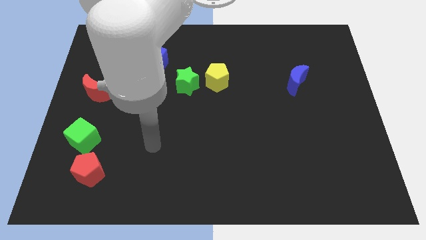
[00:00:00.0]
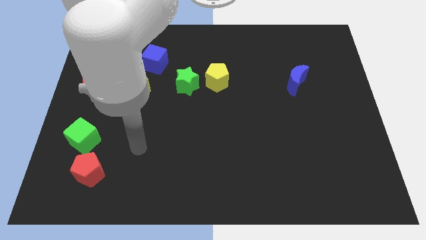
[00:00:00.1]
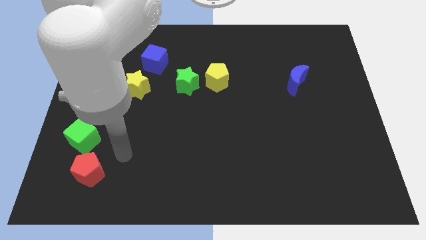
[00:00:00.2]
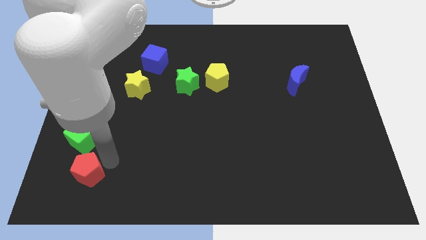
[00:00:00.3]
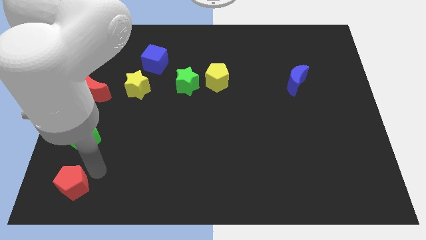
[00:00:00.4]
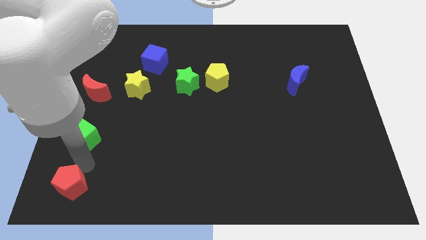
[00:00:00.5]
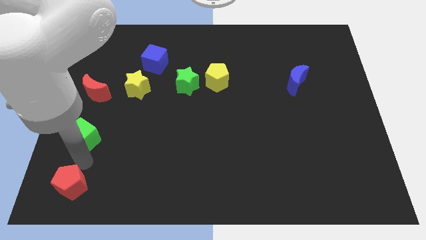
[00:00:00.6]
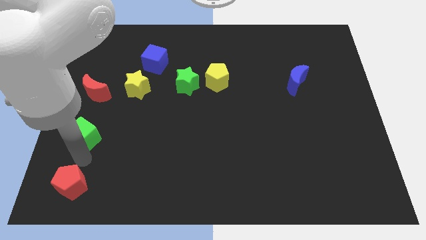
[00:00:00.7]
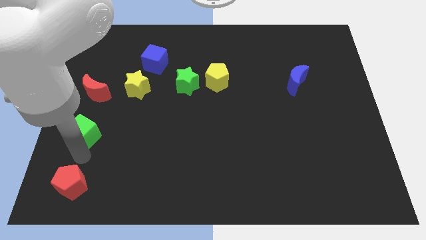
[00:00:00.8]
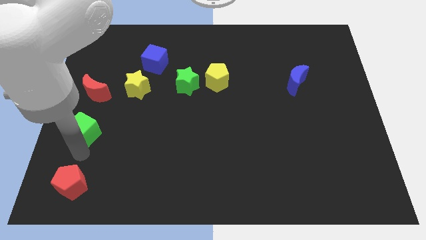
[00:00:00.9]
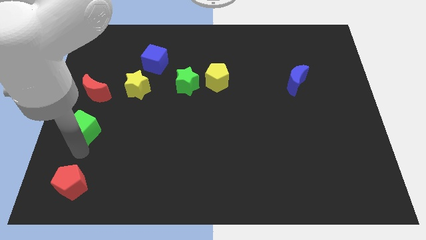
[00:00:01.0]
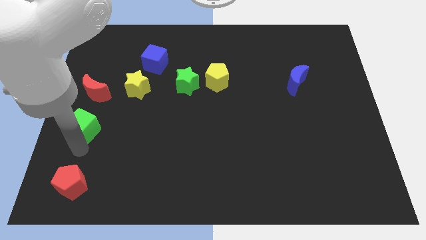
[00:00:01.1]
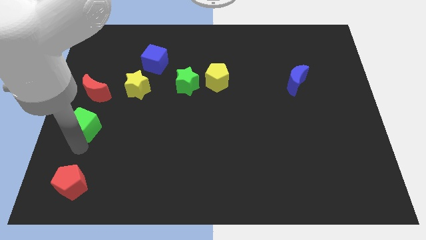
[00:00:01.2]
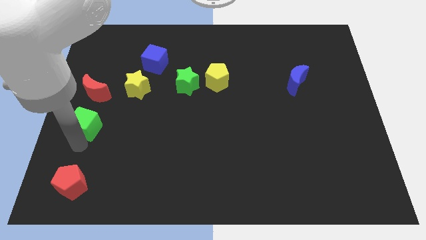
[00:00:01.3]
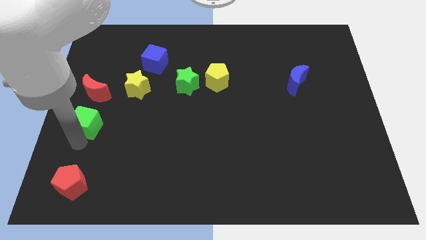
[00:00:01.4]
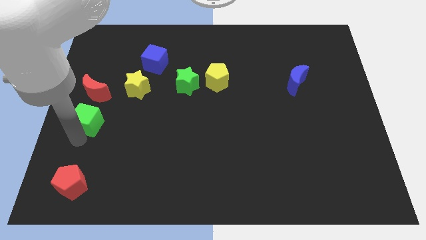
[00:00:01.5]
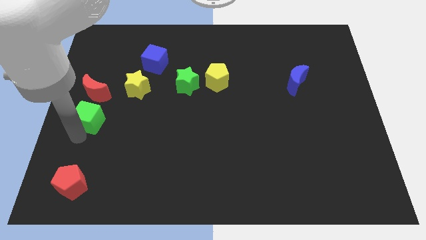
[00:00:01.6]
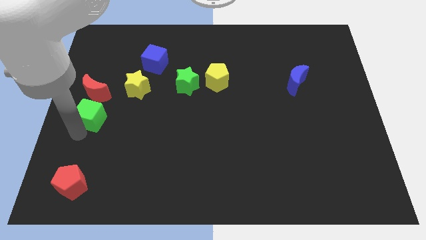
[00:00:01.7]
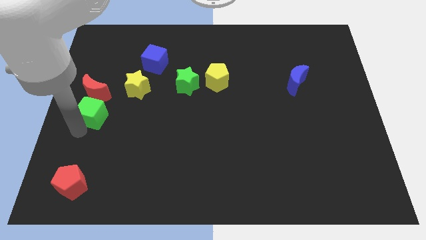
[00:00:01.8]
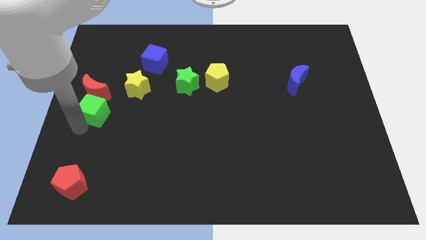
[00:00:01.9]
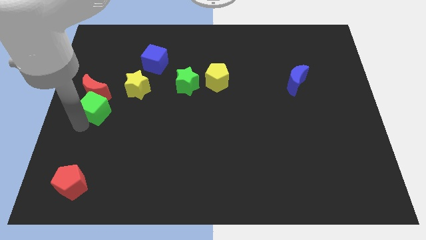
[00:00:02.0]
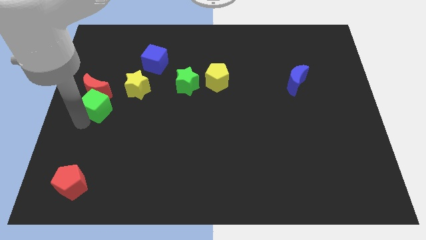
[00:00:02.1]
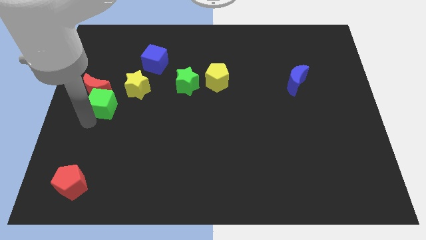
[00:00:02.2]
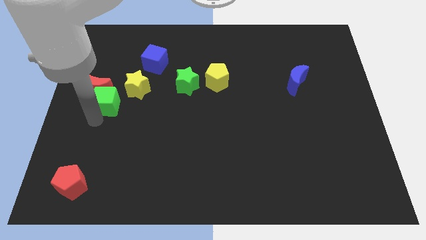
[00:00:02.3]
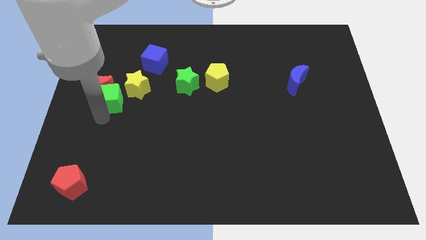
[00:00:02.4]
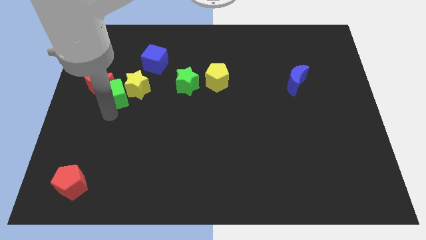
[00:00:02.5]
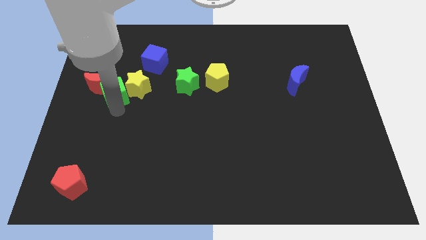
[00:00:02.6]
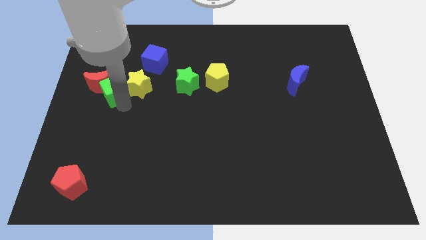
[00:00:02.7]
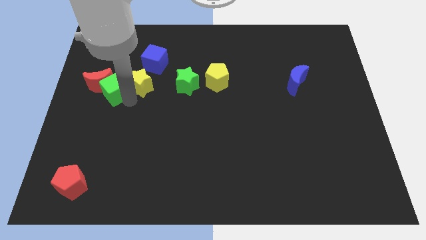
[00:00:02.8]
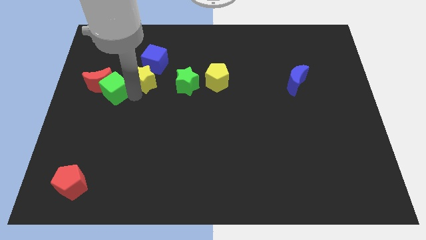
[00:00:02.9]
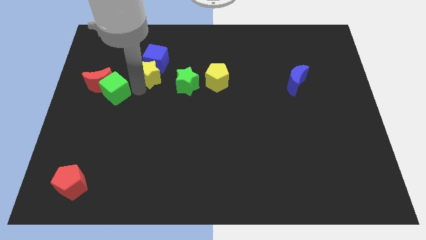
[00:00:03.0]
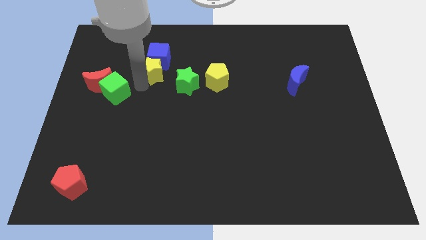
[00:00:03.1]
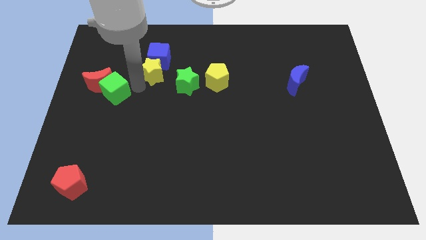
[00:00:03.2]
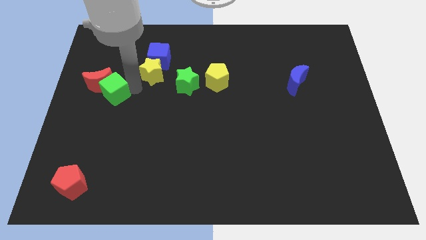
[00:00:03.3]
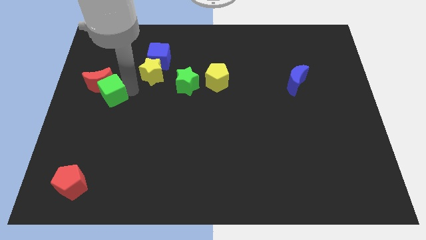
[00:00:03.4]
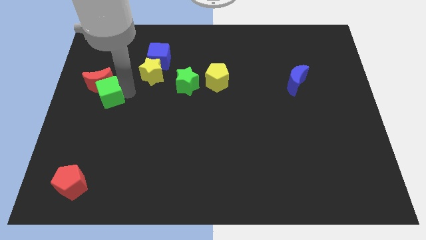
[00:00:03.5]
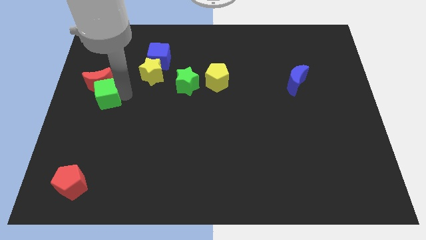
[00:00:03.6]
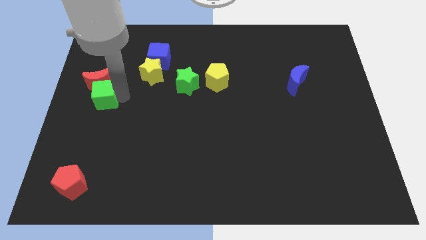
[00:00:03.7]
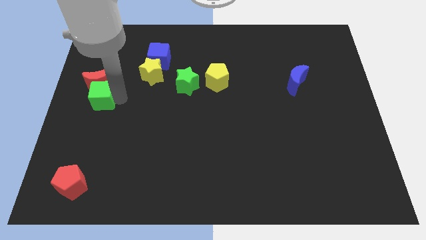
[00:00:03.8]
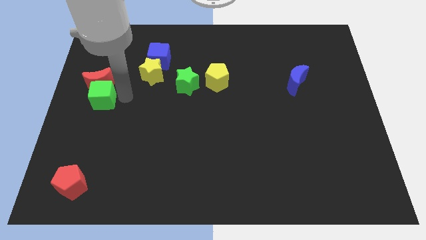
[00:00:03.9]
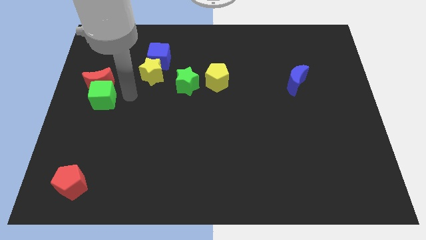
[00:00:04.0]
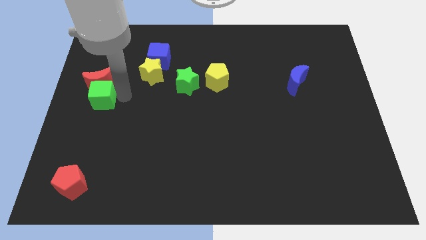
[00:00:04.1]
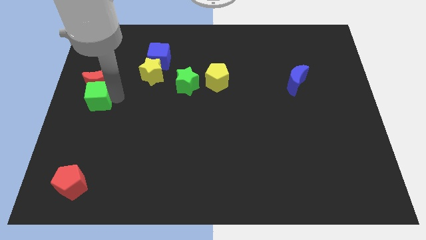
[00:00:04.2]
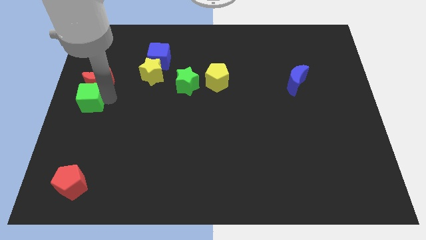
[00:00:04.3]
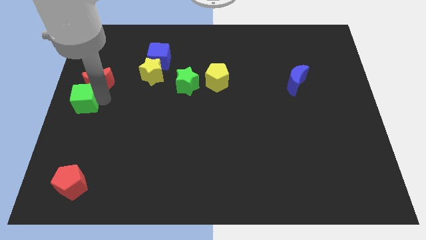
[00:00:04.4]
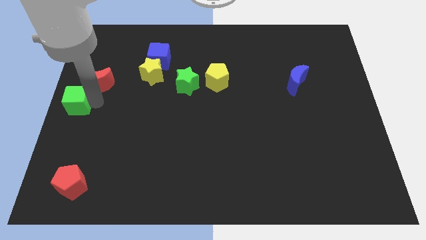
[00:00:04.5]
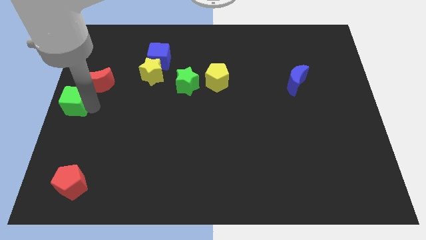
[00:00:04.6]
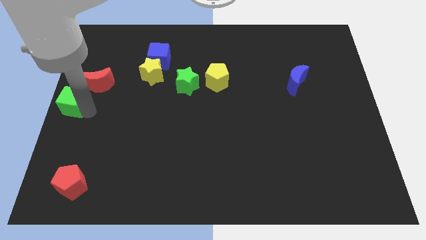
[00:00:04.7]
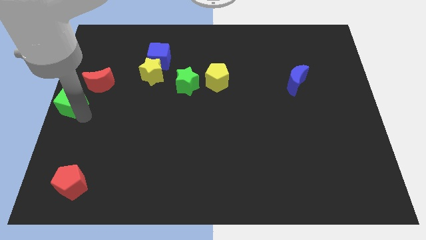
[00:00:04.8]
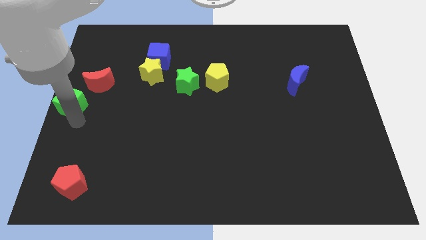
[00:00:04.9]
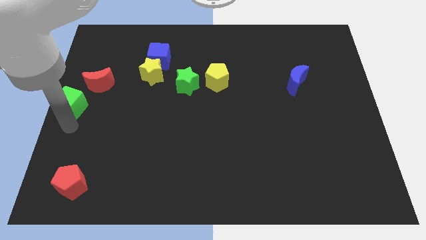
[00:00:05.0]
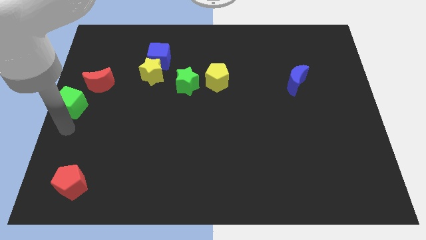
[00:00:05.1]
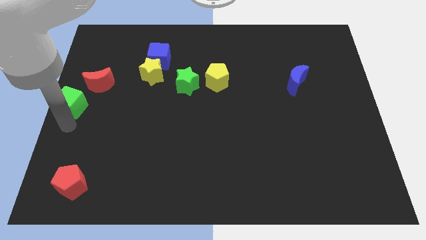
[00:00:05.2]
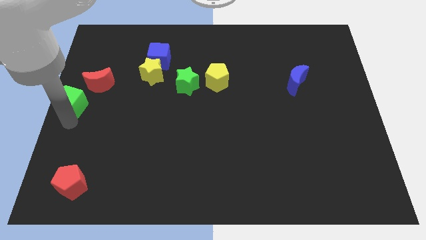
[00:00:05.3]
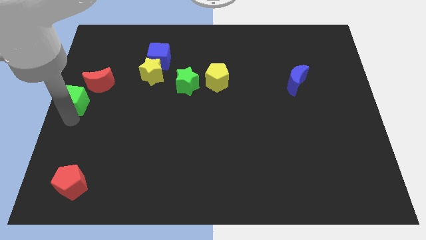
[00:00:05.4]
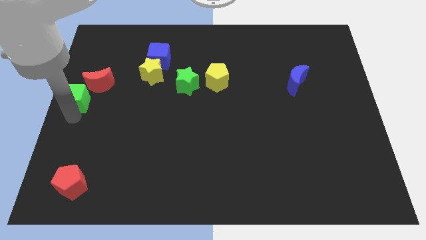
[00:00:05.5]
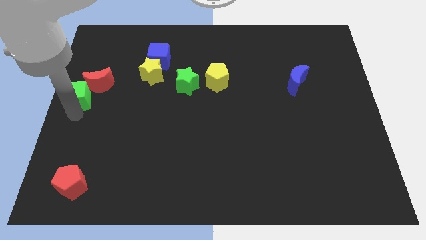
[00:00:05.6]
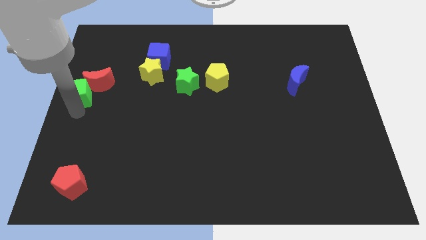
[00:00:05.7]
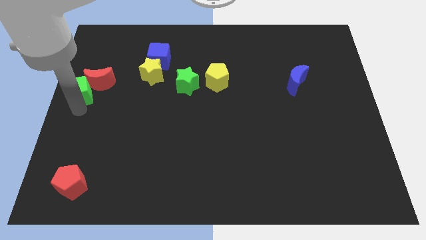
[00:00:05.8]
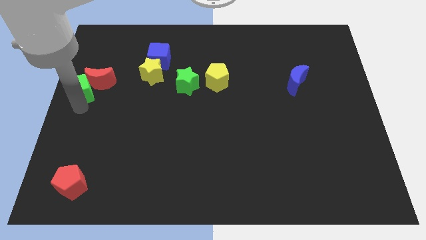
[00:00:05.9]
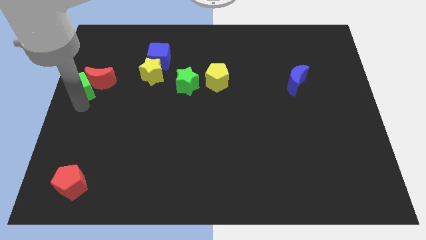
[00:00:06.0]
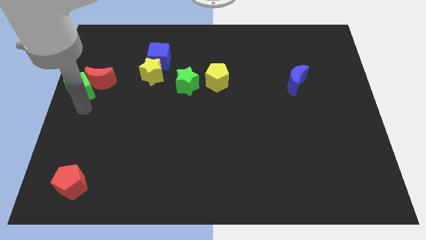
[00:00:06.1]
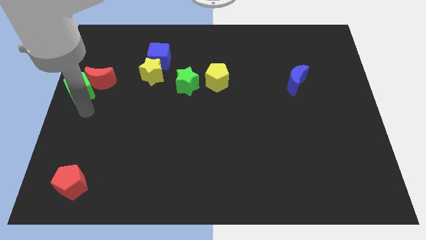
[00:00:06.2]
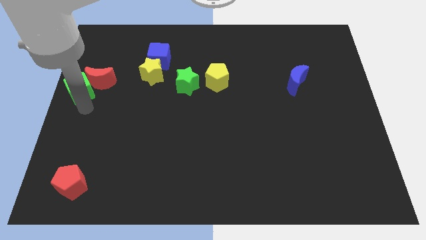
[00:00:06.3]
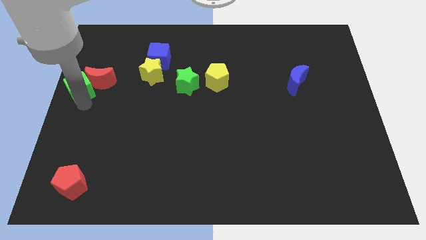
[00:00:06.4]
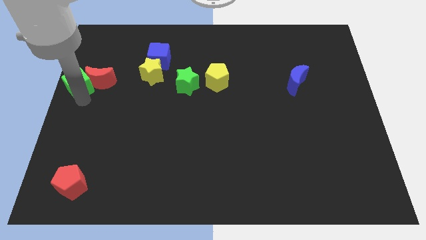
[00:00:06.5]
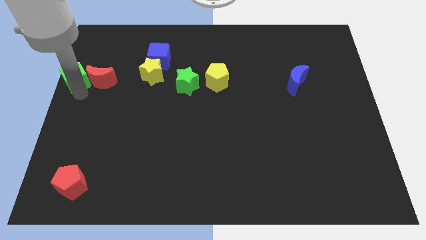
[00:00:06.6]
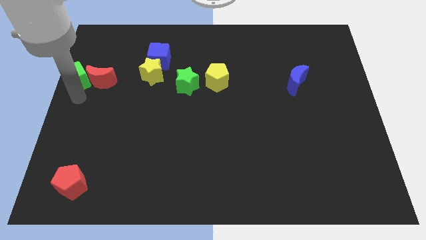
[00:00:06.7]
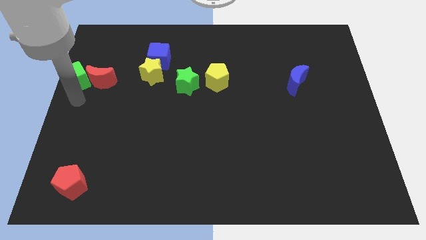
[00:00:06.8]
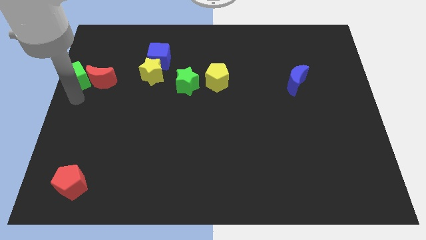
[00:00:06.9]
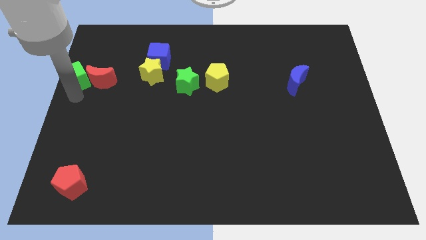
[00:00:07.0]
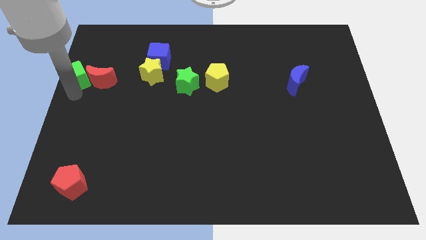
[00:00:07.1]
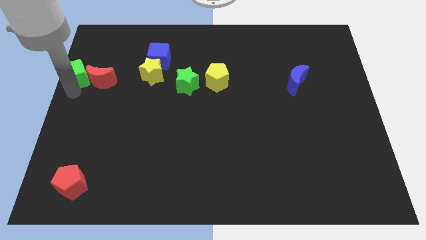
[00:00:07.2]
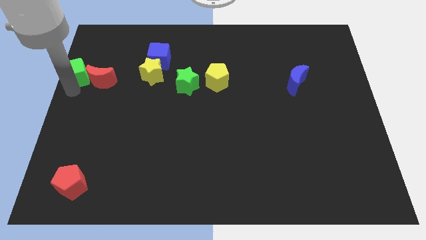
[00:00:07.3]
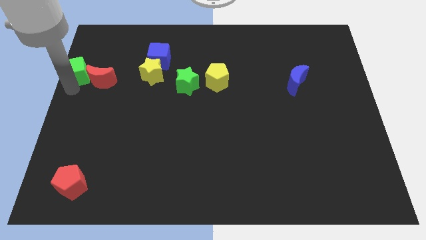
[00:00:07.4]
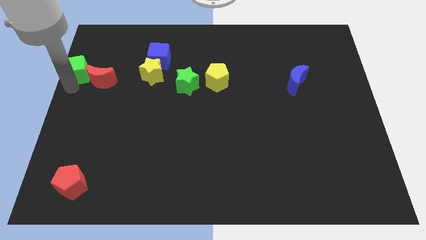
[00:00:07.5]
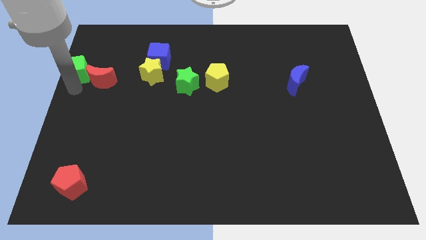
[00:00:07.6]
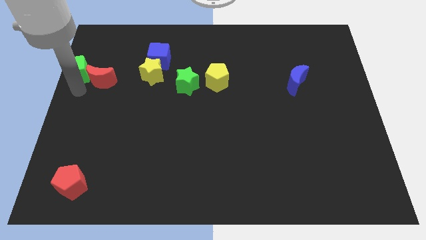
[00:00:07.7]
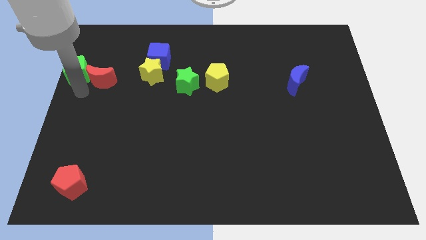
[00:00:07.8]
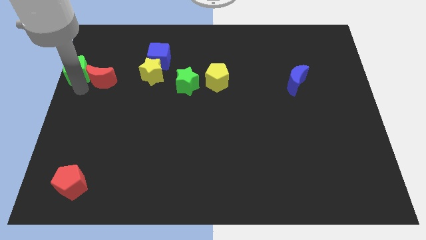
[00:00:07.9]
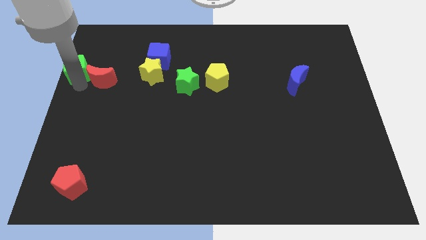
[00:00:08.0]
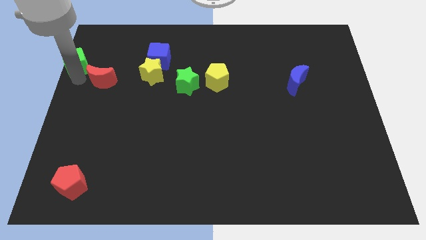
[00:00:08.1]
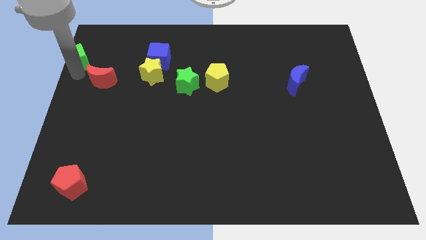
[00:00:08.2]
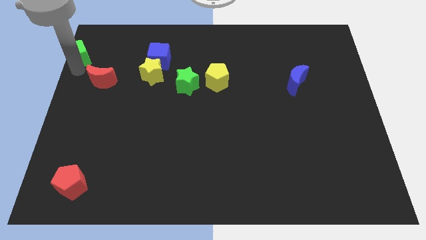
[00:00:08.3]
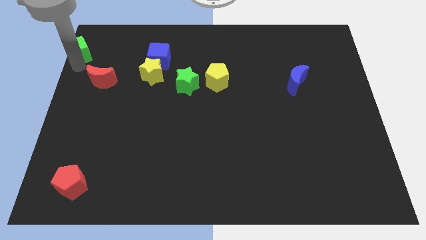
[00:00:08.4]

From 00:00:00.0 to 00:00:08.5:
push the green cube to the upper left corner
